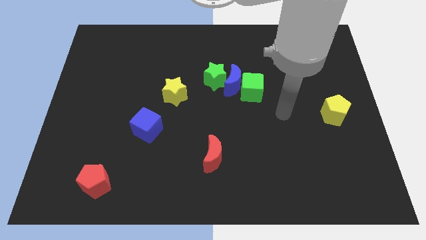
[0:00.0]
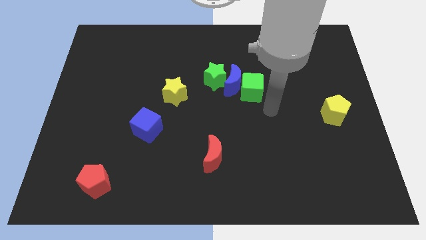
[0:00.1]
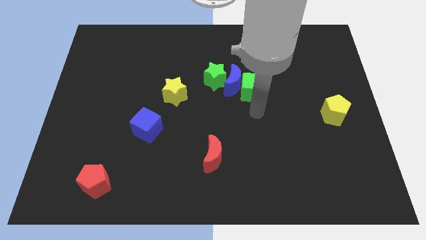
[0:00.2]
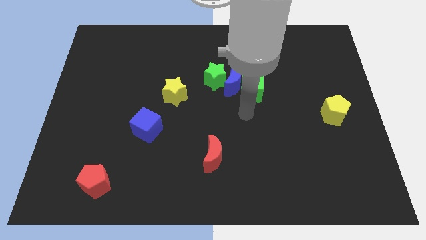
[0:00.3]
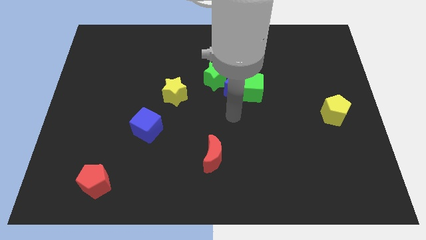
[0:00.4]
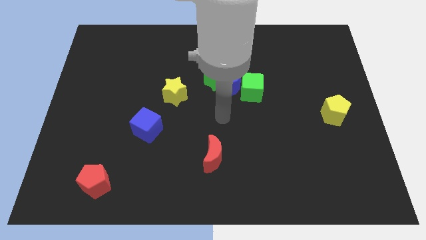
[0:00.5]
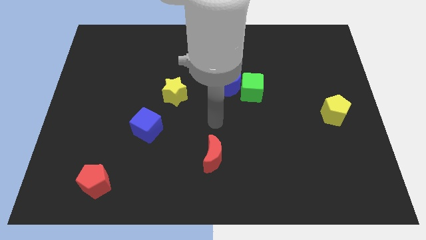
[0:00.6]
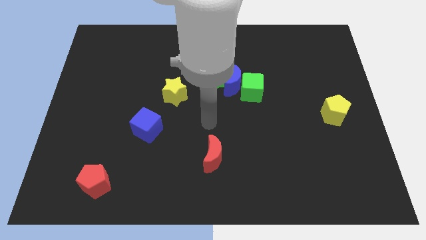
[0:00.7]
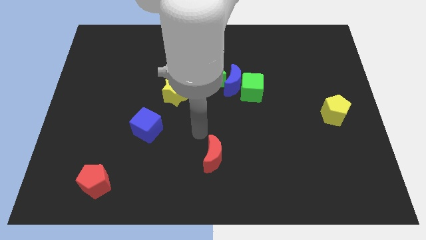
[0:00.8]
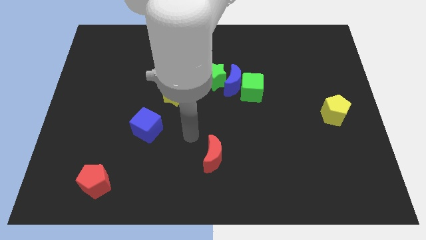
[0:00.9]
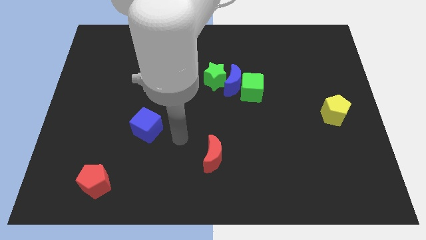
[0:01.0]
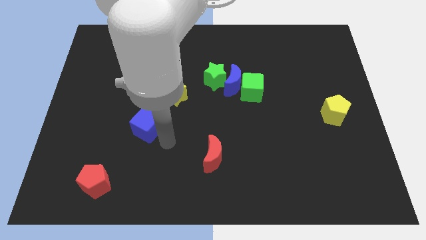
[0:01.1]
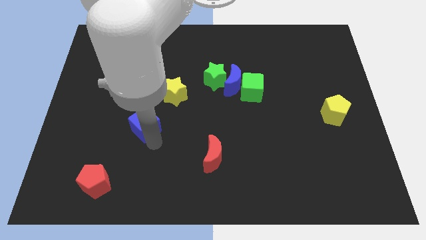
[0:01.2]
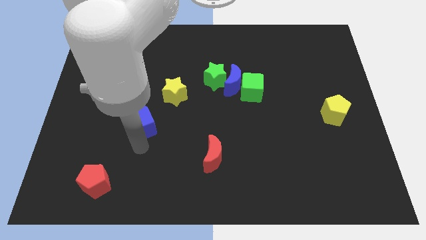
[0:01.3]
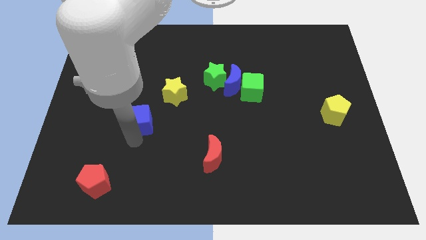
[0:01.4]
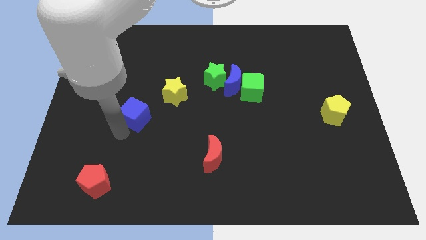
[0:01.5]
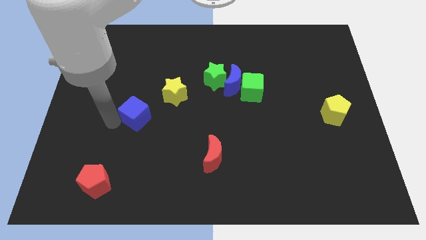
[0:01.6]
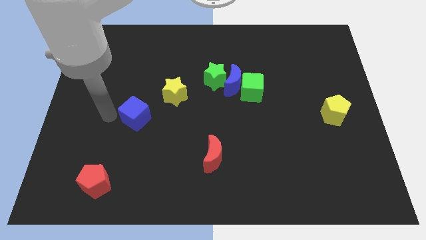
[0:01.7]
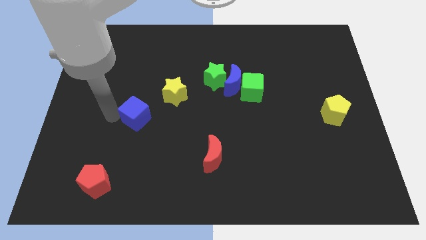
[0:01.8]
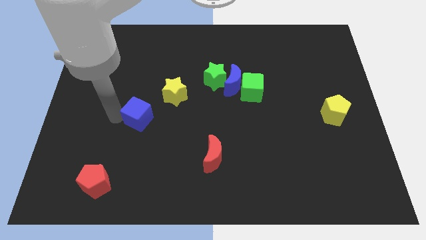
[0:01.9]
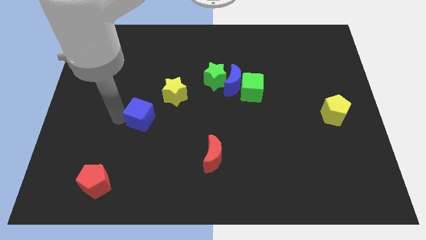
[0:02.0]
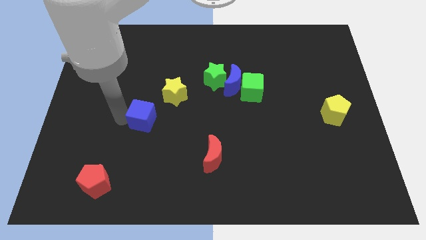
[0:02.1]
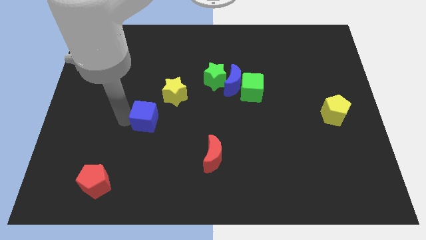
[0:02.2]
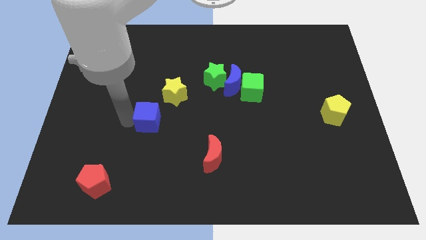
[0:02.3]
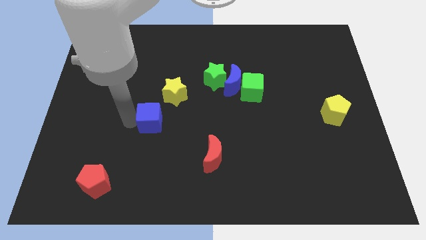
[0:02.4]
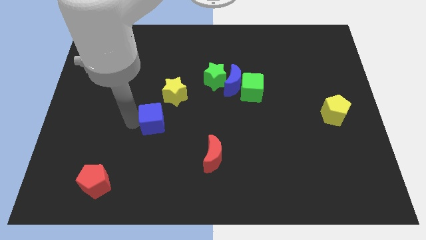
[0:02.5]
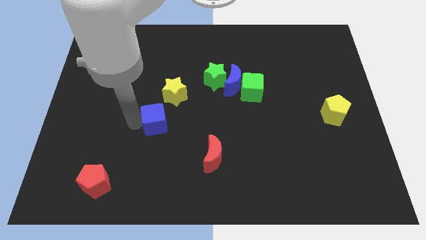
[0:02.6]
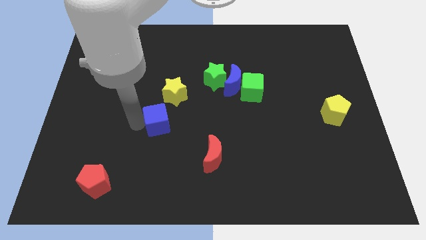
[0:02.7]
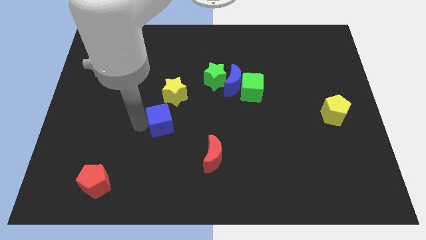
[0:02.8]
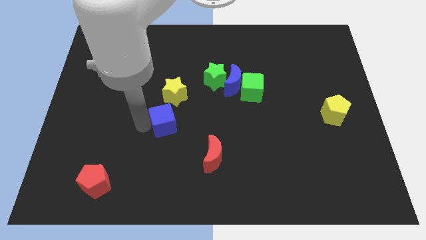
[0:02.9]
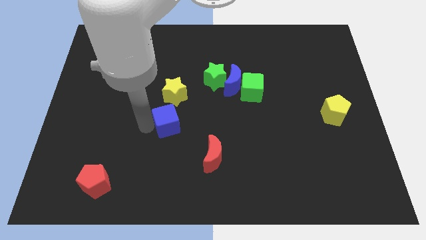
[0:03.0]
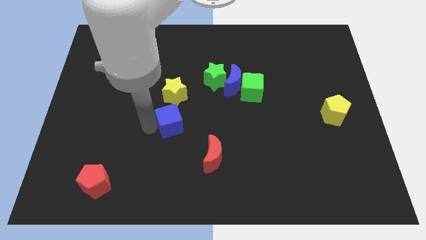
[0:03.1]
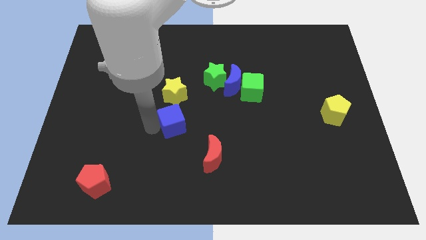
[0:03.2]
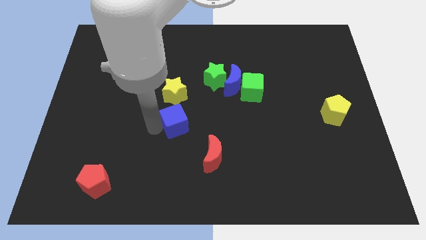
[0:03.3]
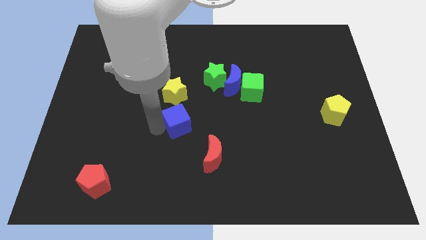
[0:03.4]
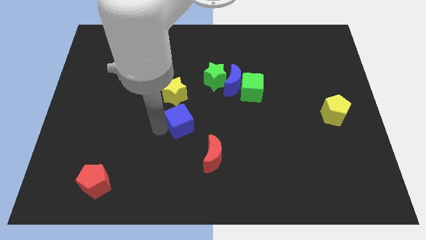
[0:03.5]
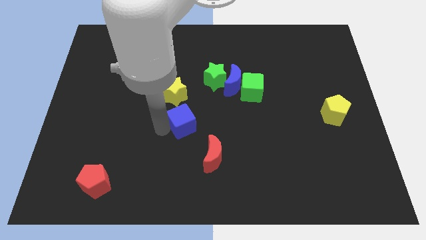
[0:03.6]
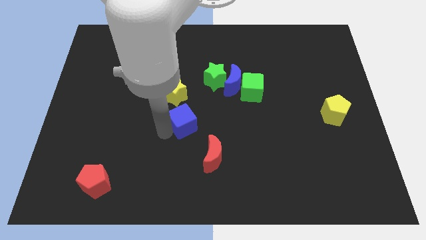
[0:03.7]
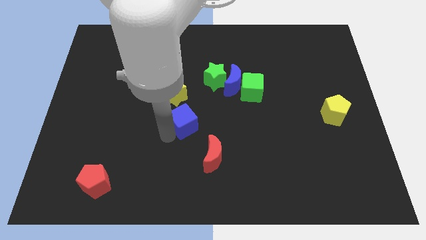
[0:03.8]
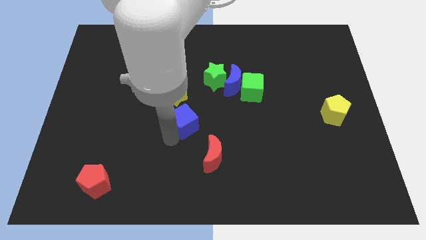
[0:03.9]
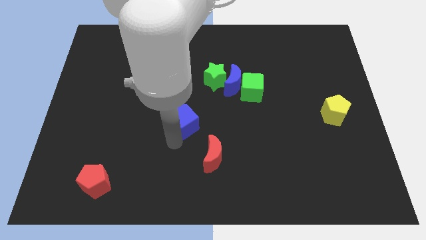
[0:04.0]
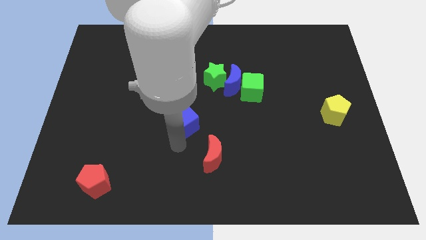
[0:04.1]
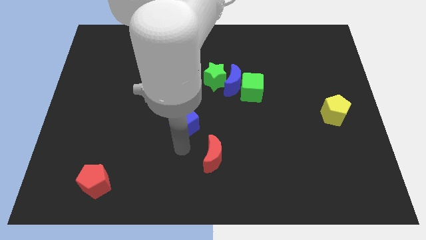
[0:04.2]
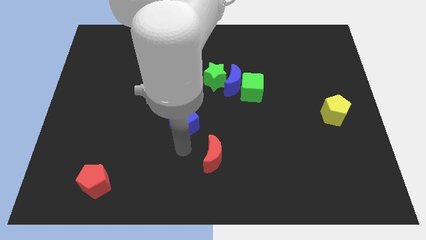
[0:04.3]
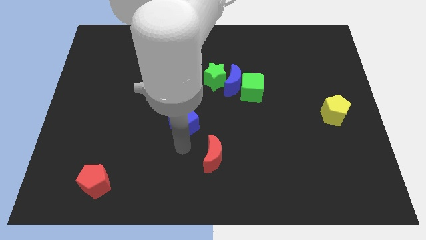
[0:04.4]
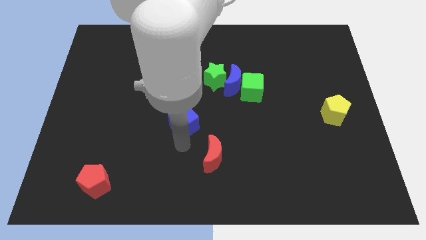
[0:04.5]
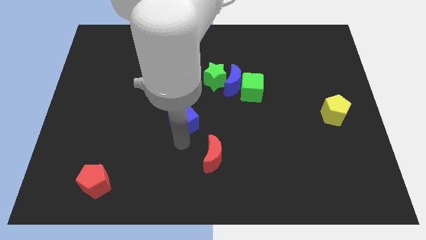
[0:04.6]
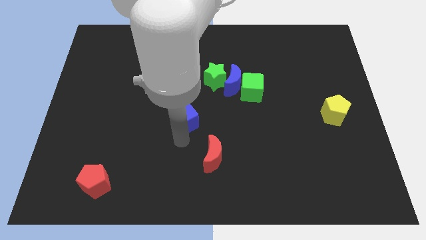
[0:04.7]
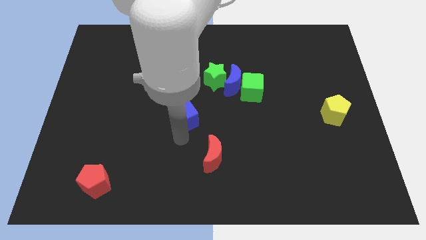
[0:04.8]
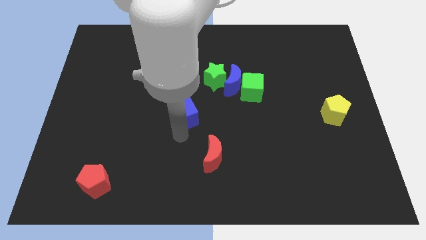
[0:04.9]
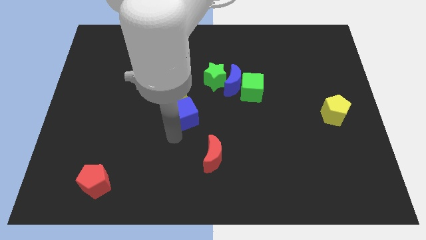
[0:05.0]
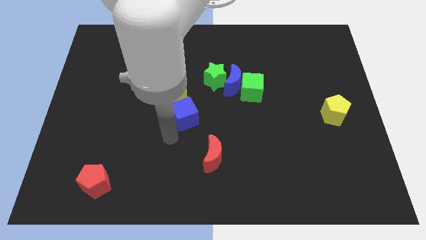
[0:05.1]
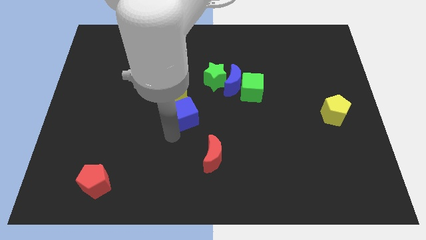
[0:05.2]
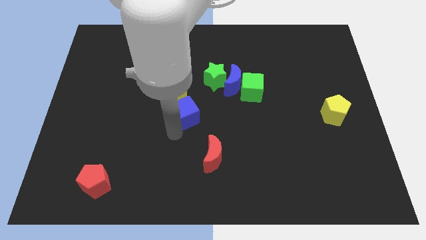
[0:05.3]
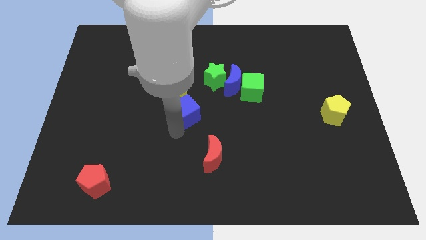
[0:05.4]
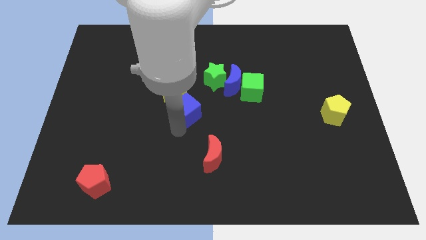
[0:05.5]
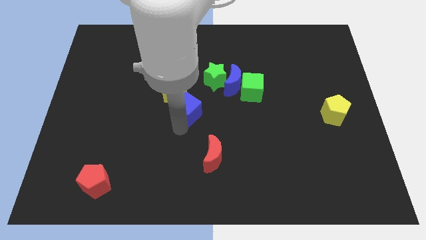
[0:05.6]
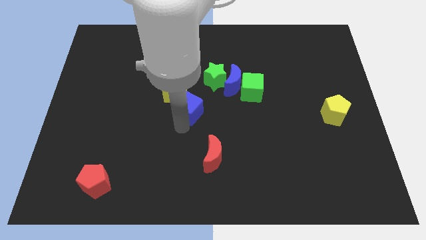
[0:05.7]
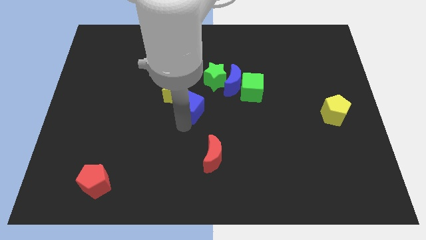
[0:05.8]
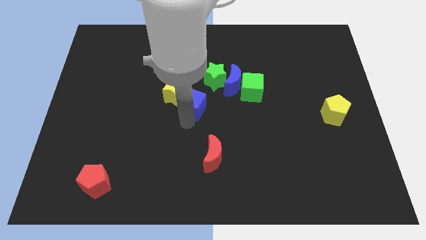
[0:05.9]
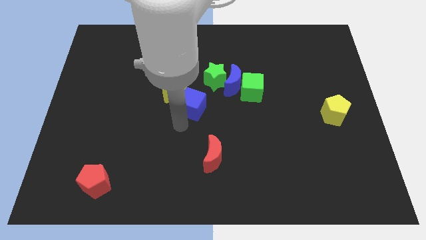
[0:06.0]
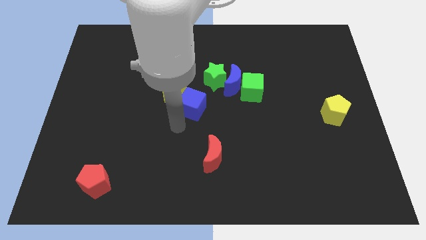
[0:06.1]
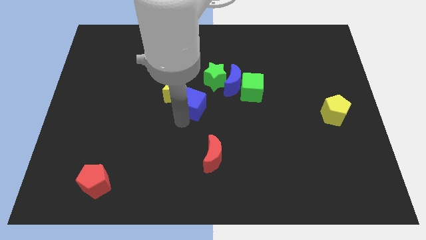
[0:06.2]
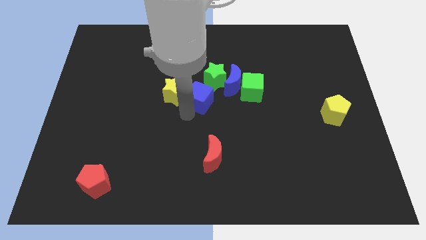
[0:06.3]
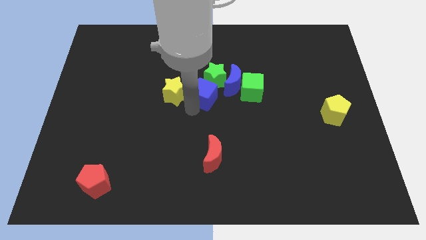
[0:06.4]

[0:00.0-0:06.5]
move the blue cube close to the green star
